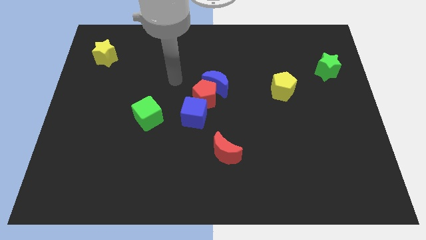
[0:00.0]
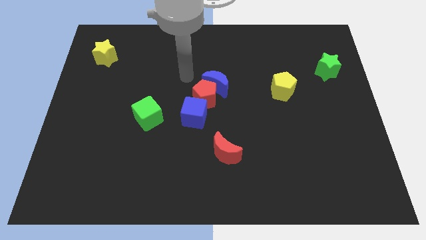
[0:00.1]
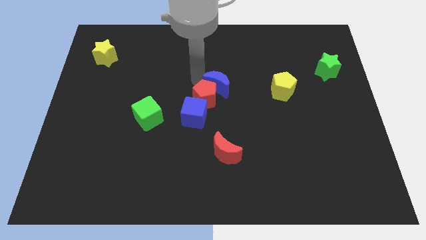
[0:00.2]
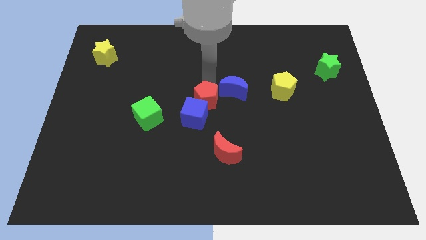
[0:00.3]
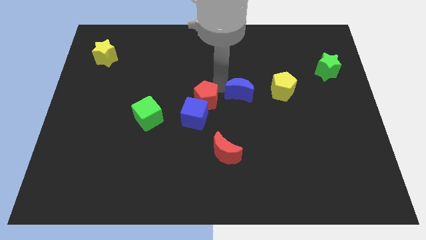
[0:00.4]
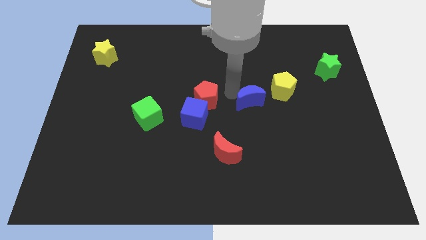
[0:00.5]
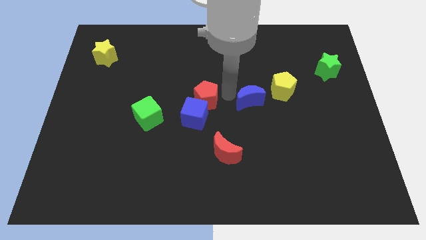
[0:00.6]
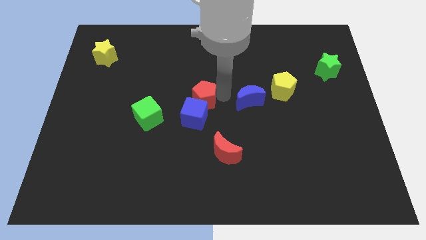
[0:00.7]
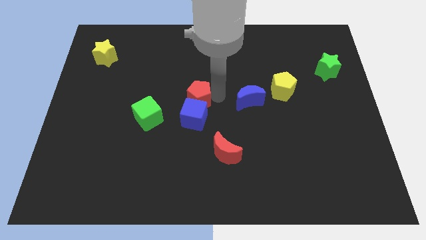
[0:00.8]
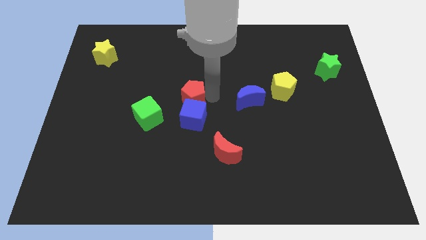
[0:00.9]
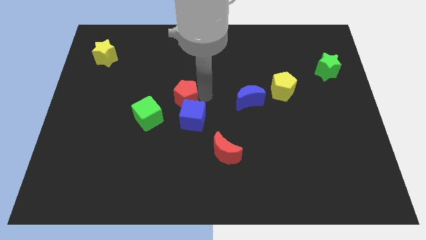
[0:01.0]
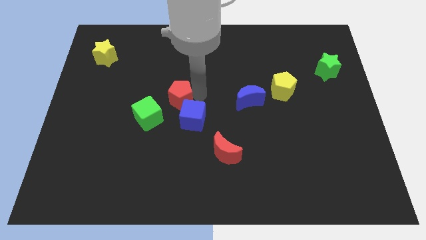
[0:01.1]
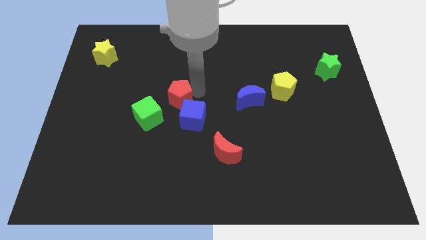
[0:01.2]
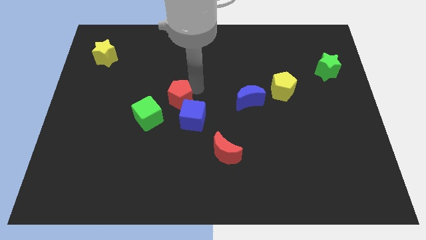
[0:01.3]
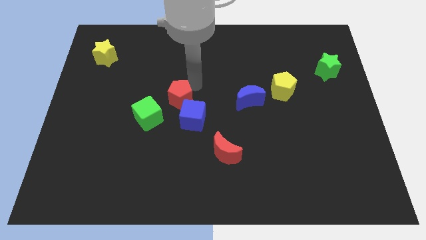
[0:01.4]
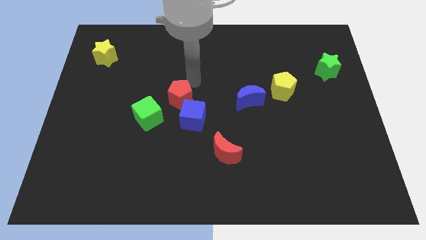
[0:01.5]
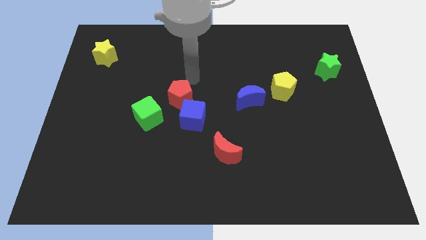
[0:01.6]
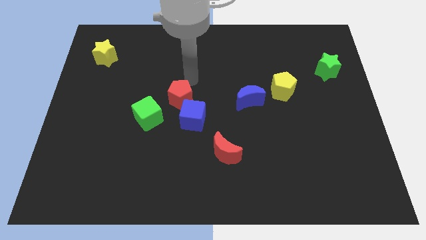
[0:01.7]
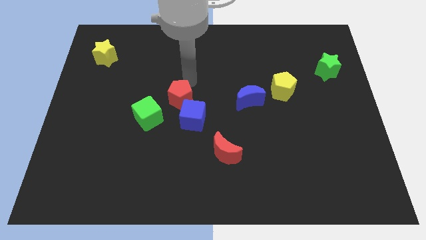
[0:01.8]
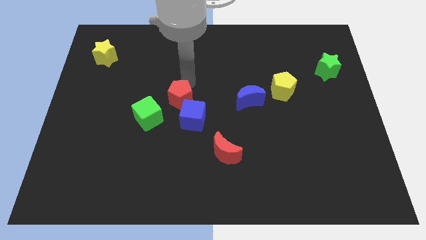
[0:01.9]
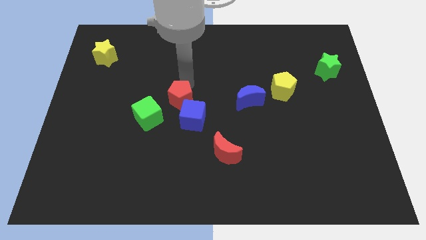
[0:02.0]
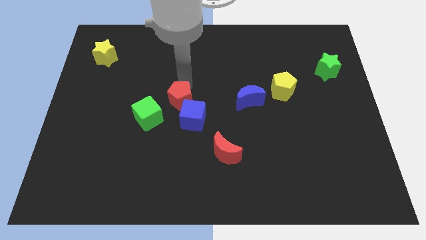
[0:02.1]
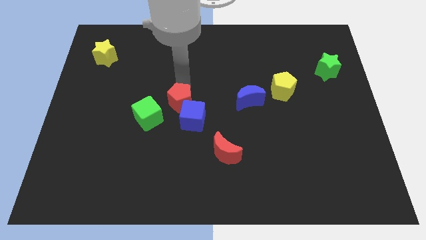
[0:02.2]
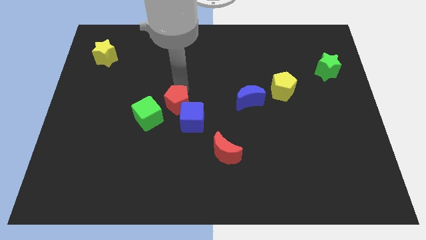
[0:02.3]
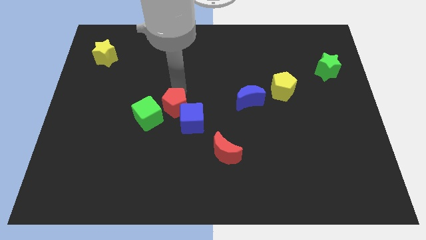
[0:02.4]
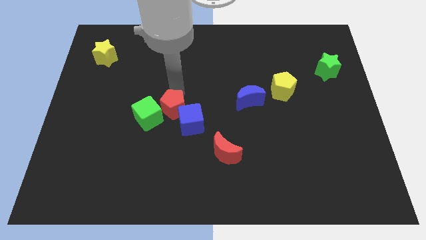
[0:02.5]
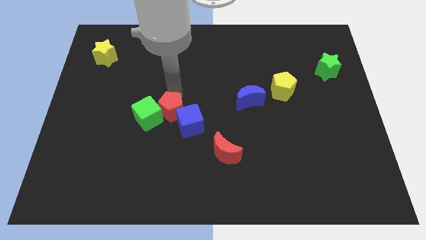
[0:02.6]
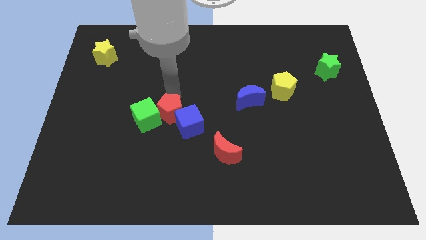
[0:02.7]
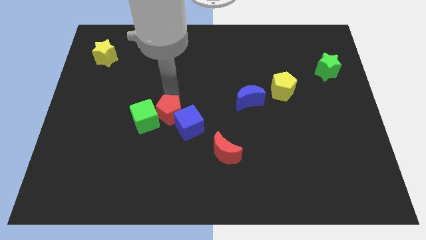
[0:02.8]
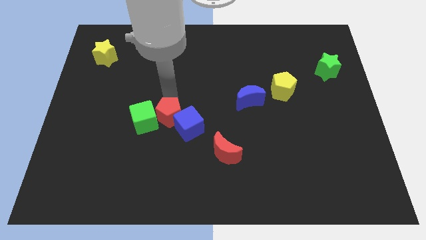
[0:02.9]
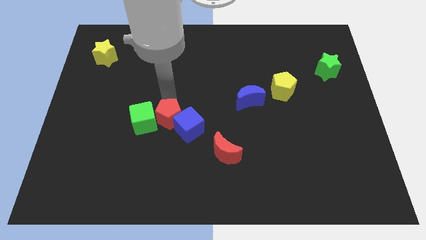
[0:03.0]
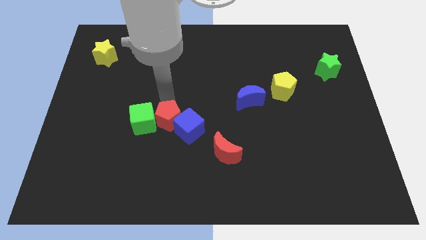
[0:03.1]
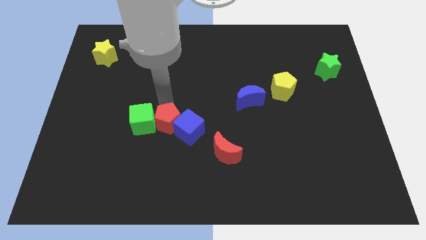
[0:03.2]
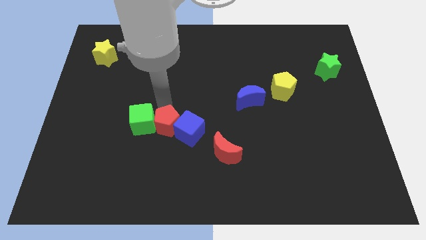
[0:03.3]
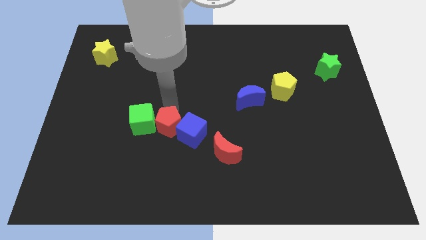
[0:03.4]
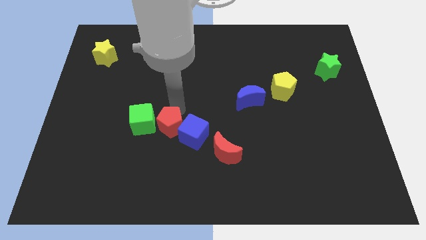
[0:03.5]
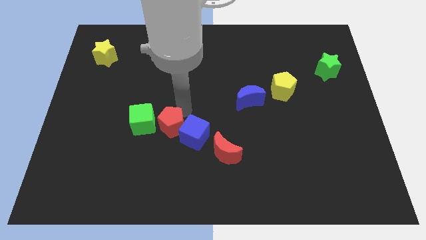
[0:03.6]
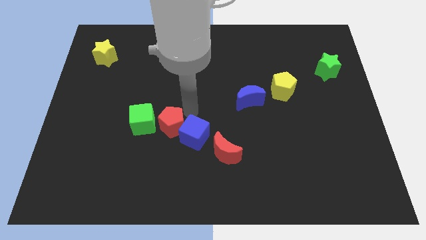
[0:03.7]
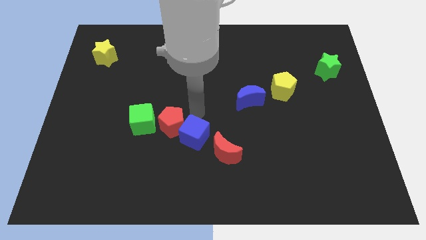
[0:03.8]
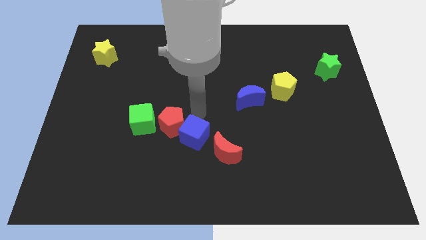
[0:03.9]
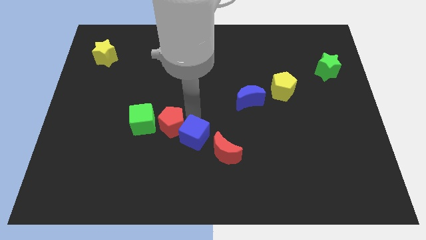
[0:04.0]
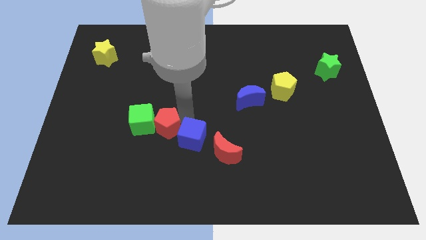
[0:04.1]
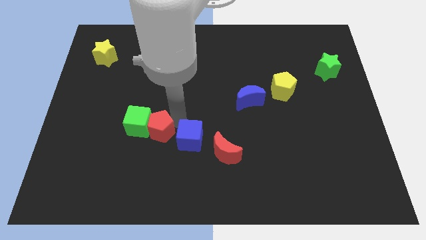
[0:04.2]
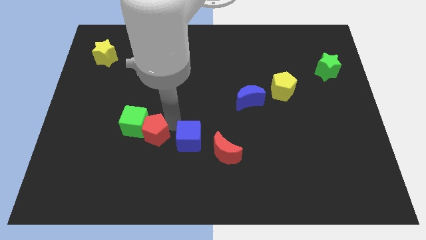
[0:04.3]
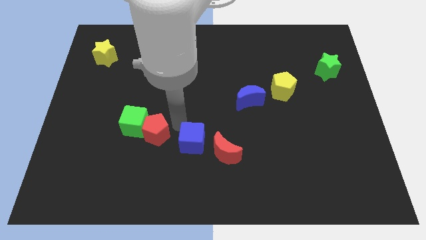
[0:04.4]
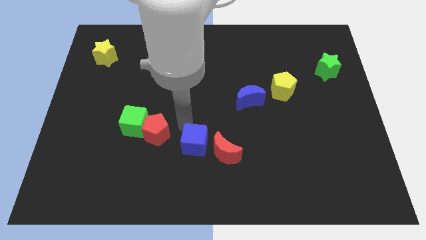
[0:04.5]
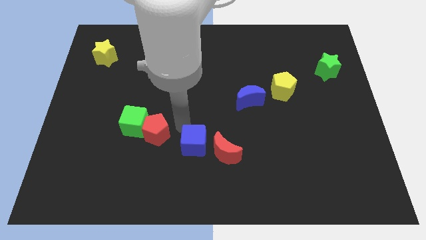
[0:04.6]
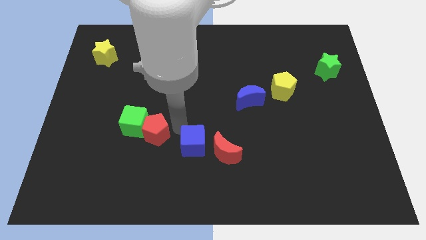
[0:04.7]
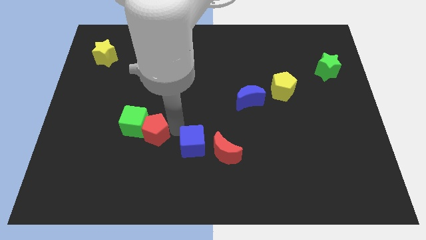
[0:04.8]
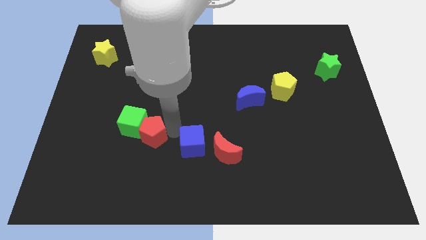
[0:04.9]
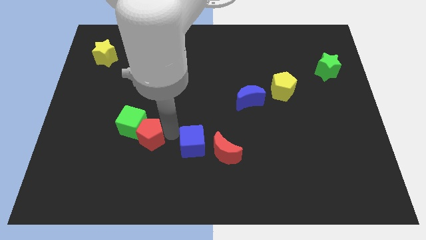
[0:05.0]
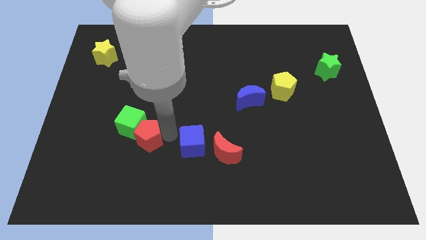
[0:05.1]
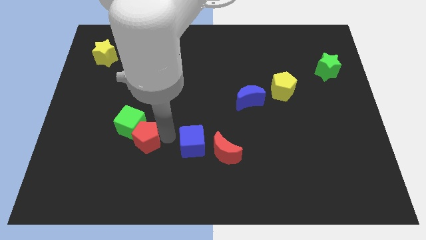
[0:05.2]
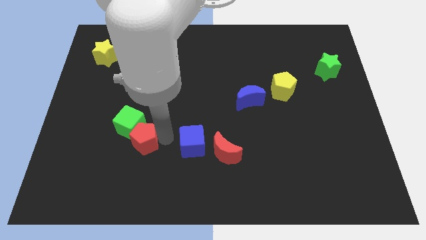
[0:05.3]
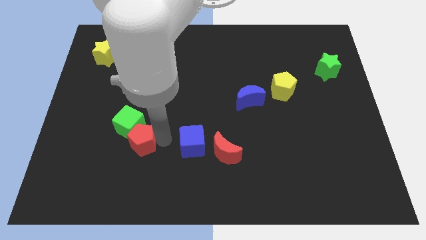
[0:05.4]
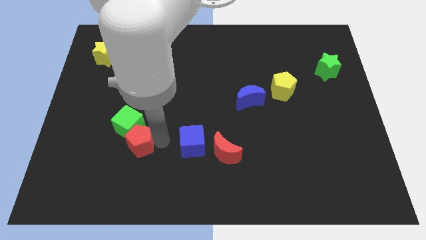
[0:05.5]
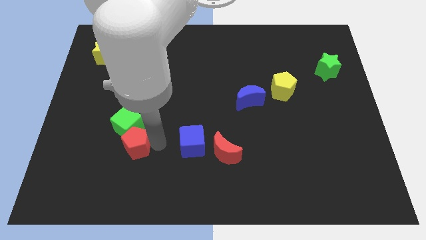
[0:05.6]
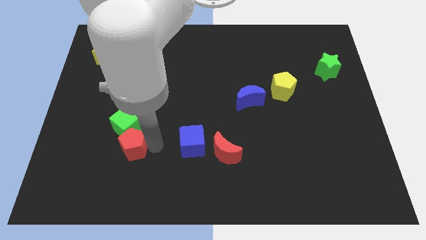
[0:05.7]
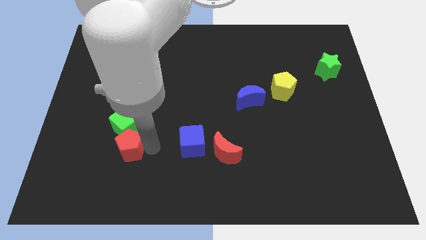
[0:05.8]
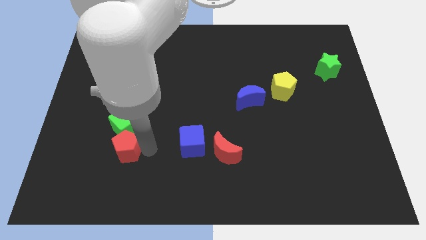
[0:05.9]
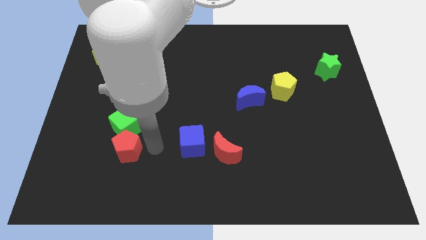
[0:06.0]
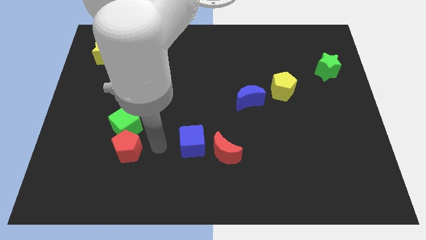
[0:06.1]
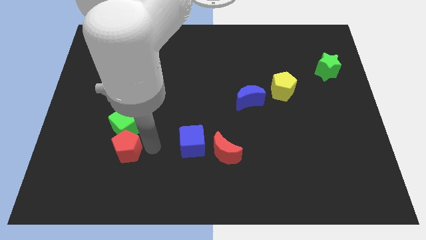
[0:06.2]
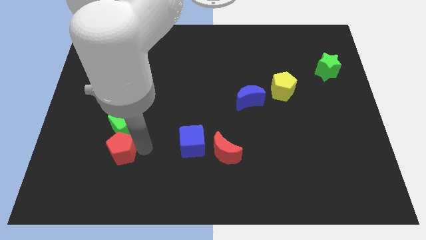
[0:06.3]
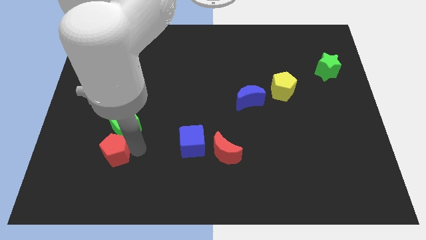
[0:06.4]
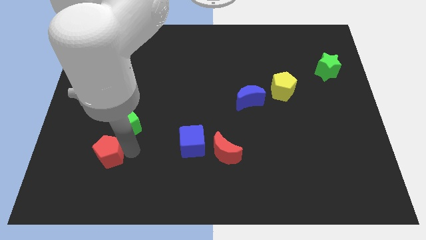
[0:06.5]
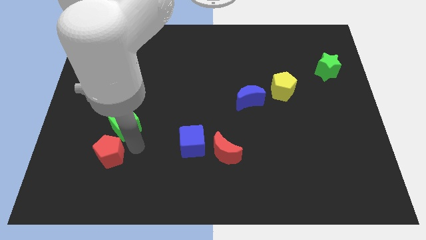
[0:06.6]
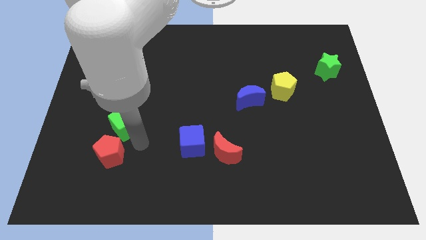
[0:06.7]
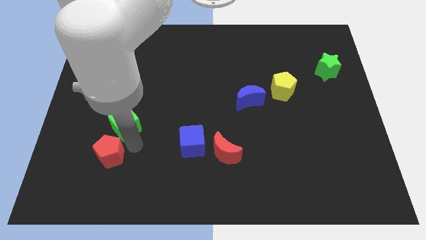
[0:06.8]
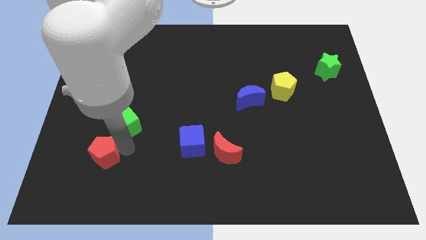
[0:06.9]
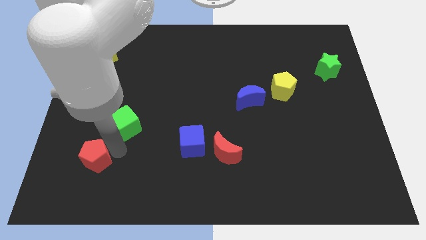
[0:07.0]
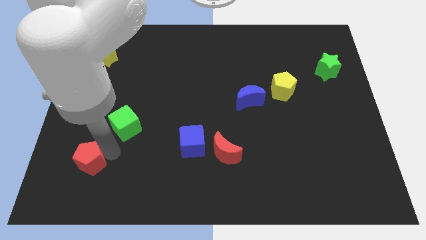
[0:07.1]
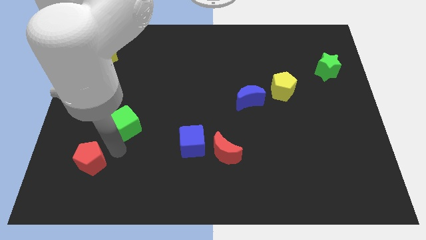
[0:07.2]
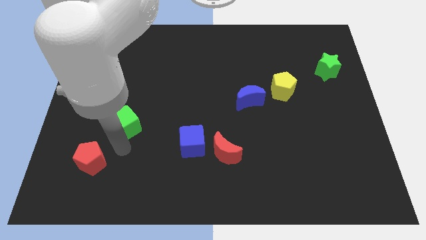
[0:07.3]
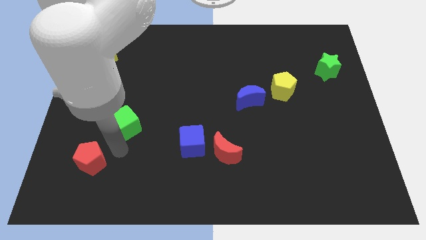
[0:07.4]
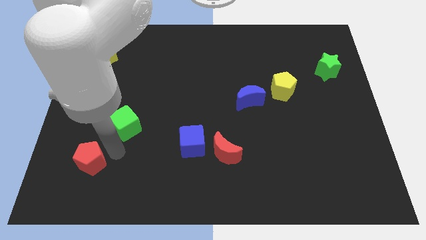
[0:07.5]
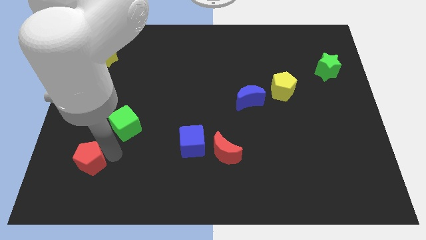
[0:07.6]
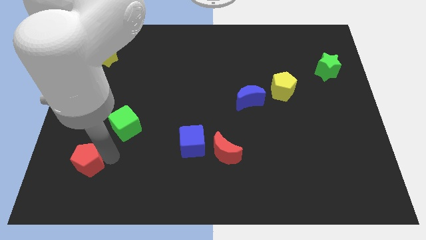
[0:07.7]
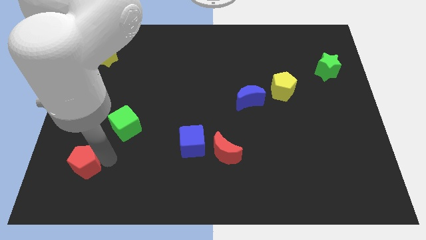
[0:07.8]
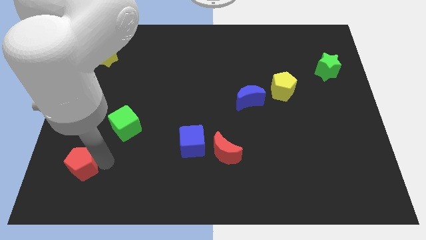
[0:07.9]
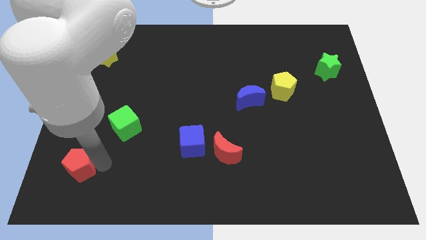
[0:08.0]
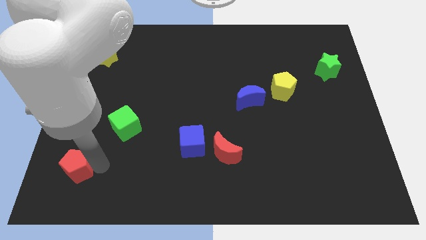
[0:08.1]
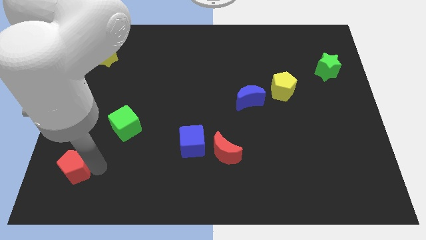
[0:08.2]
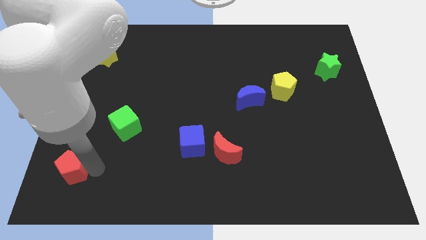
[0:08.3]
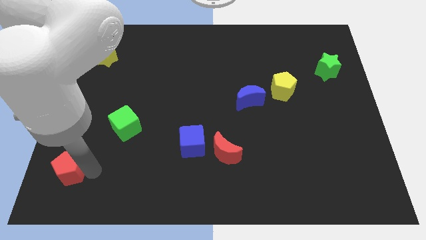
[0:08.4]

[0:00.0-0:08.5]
push the red pentagon to the bottom left
